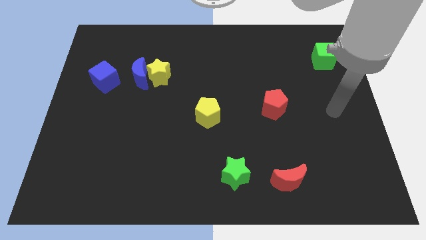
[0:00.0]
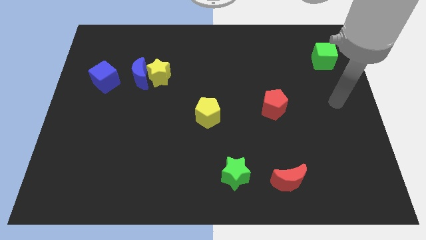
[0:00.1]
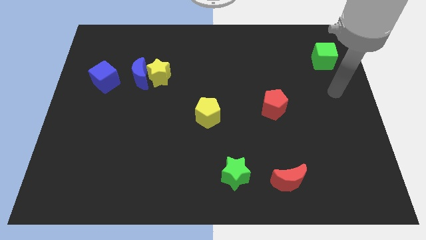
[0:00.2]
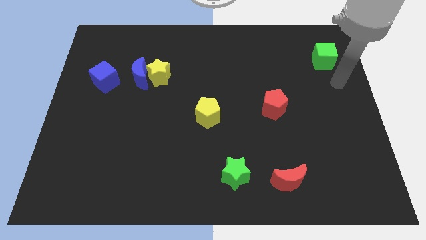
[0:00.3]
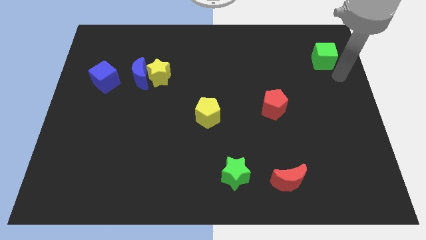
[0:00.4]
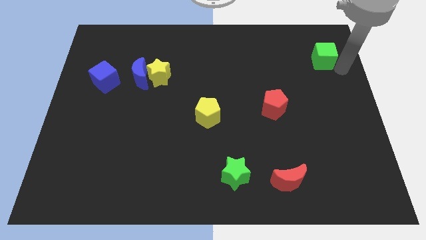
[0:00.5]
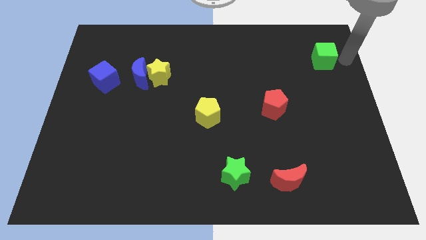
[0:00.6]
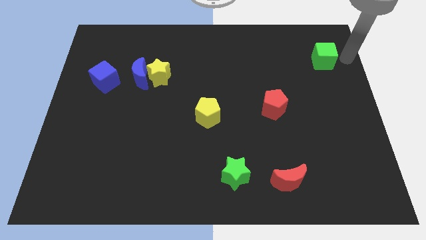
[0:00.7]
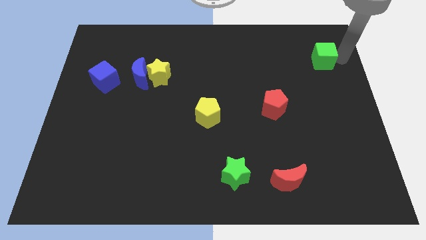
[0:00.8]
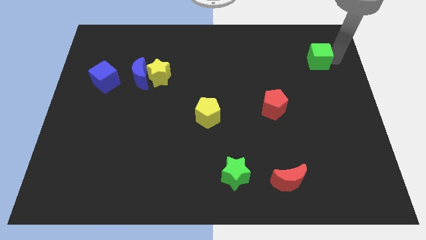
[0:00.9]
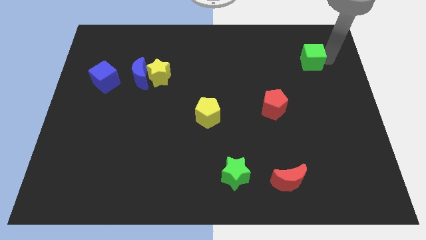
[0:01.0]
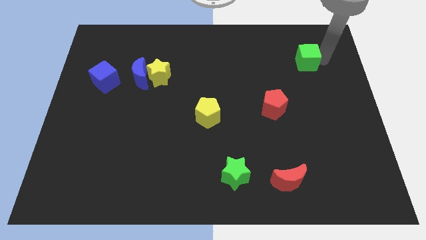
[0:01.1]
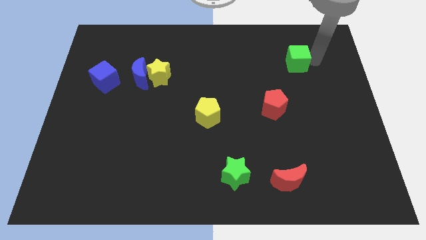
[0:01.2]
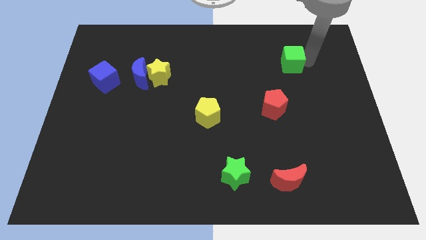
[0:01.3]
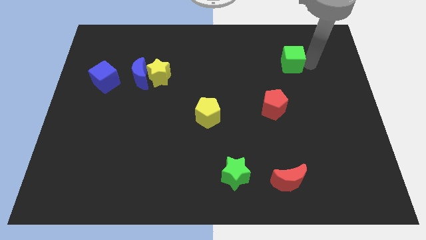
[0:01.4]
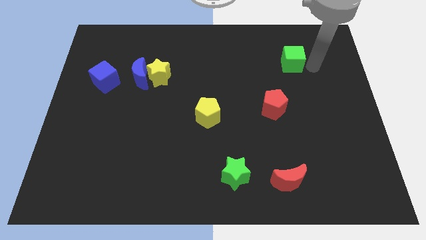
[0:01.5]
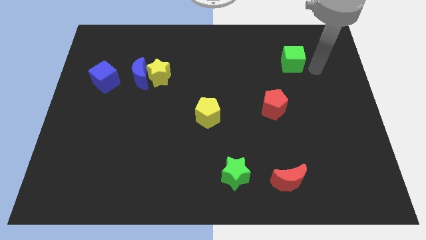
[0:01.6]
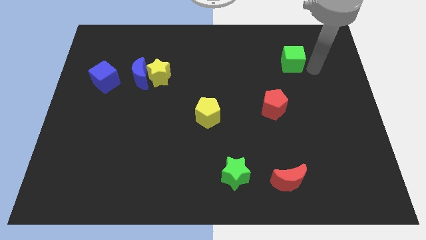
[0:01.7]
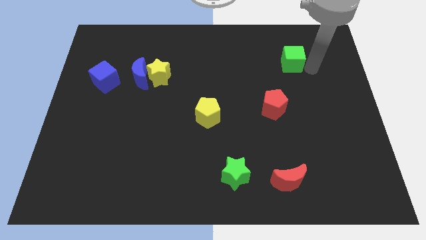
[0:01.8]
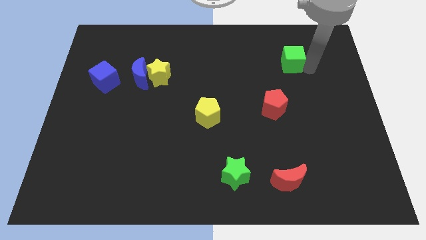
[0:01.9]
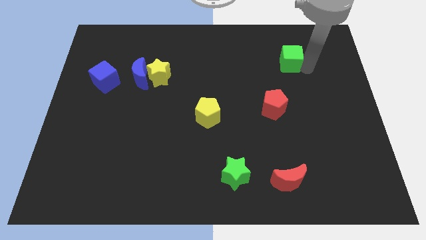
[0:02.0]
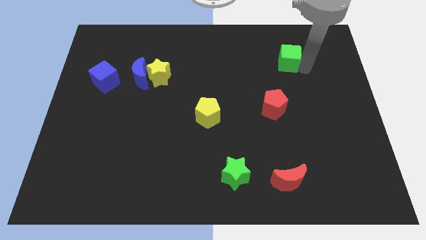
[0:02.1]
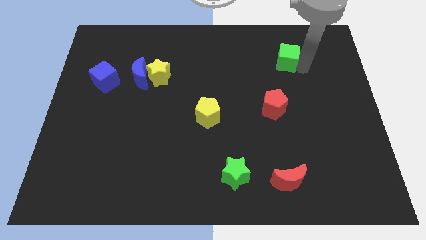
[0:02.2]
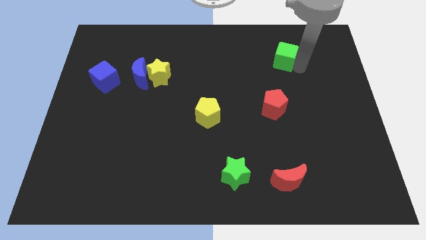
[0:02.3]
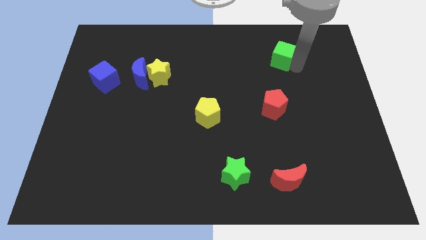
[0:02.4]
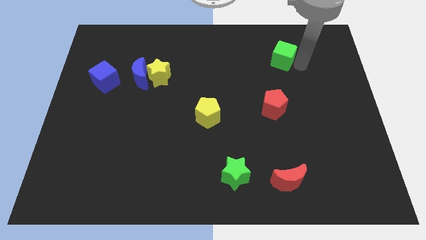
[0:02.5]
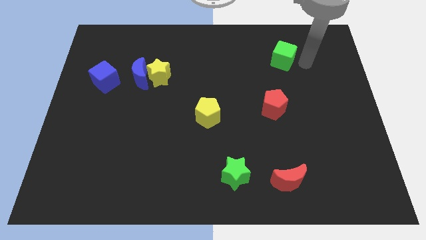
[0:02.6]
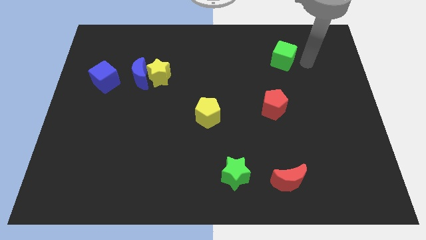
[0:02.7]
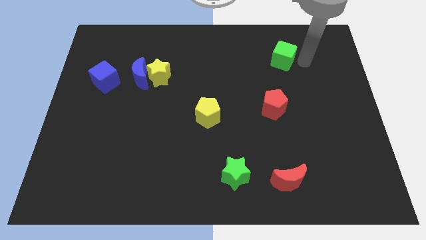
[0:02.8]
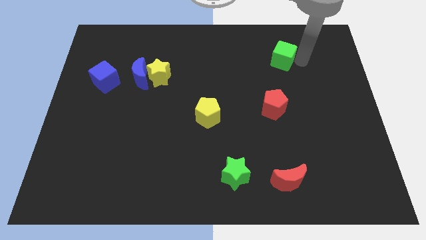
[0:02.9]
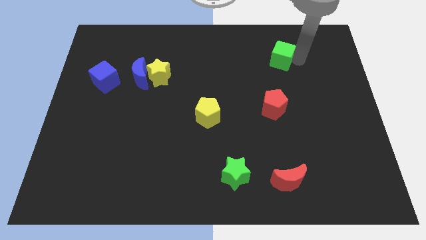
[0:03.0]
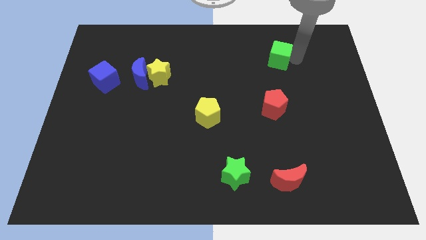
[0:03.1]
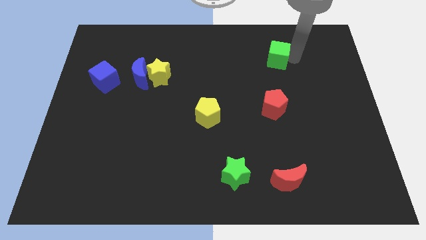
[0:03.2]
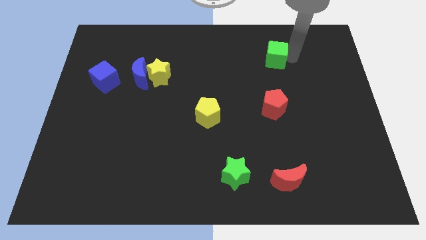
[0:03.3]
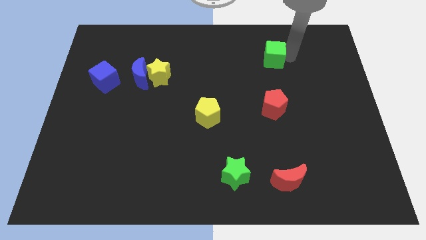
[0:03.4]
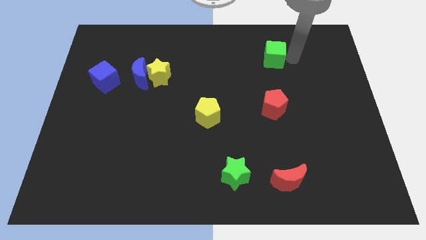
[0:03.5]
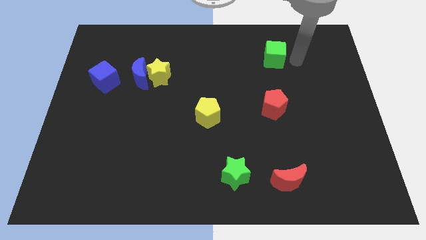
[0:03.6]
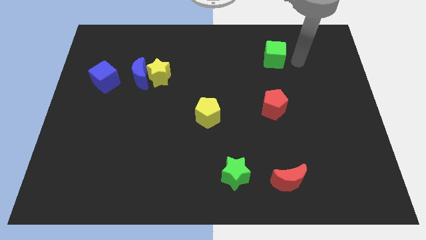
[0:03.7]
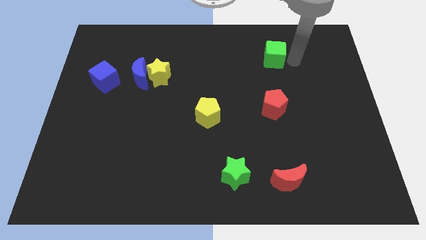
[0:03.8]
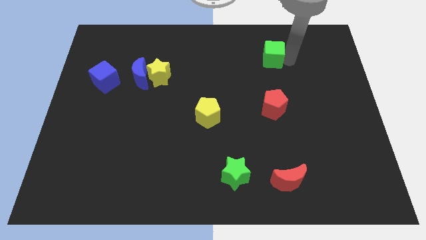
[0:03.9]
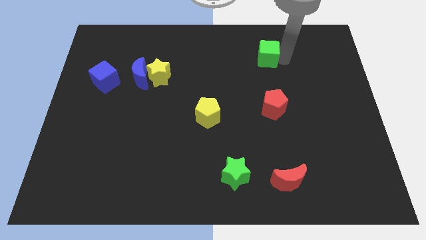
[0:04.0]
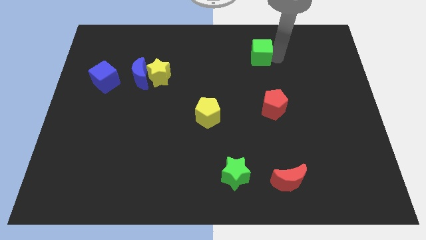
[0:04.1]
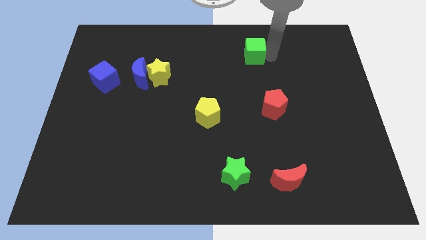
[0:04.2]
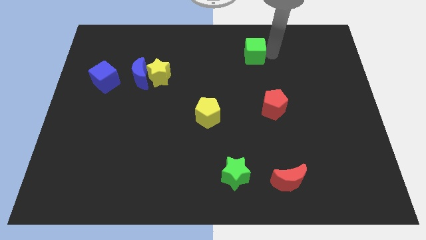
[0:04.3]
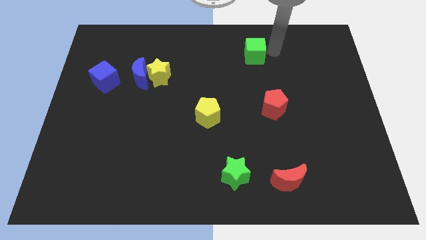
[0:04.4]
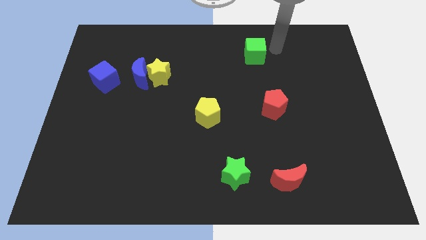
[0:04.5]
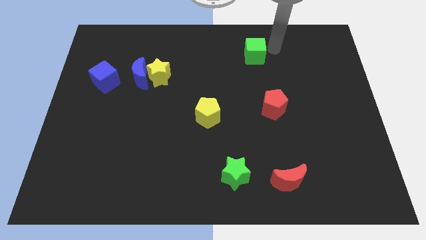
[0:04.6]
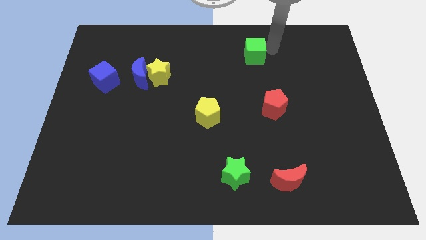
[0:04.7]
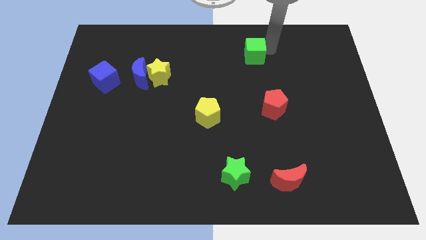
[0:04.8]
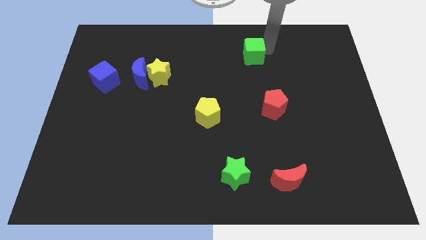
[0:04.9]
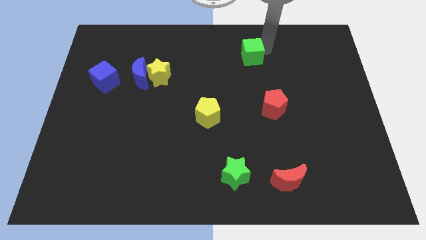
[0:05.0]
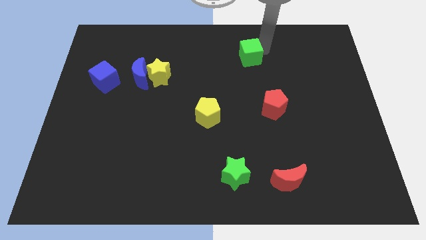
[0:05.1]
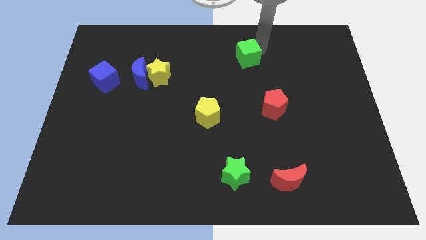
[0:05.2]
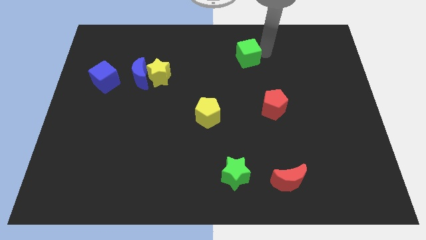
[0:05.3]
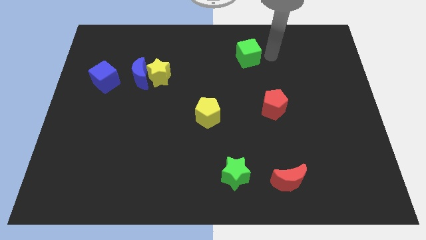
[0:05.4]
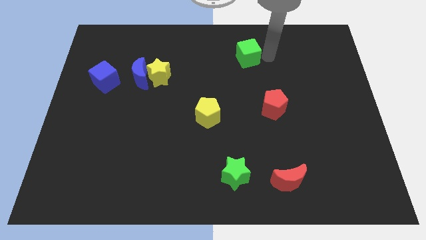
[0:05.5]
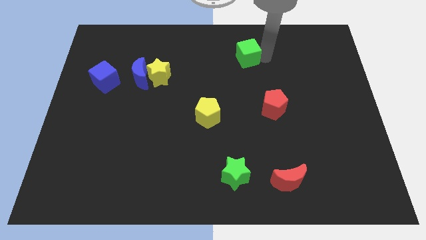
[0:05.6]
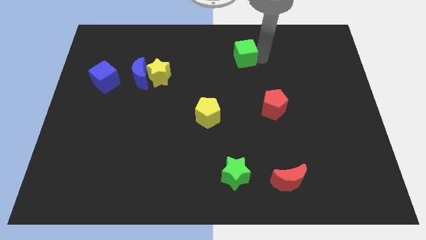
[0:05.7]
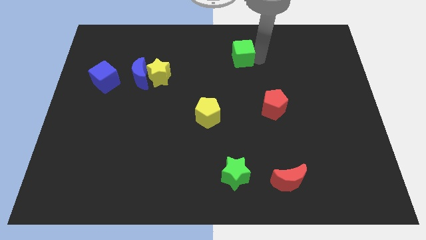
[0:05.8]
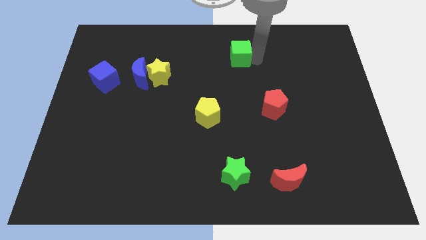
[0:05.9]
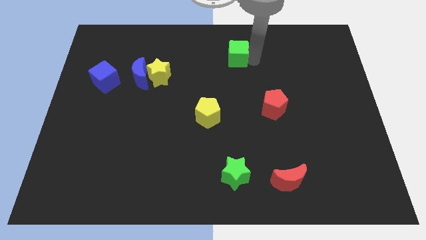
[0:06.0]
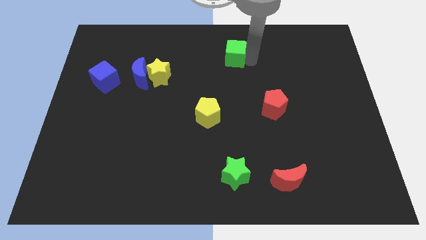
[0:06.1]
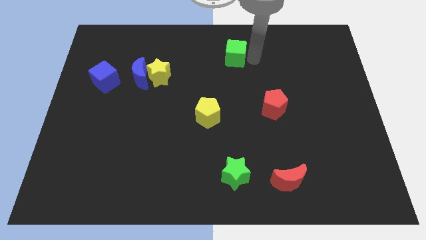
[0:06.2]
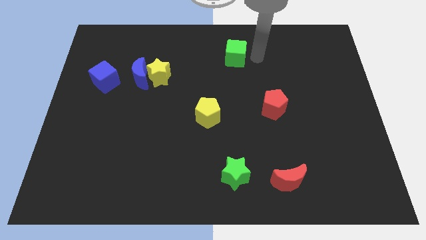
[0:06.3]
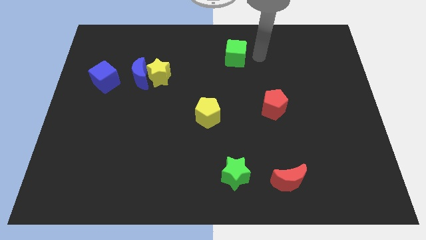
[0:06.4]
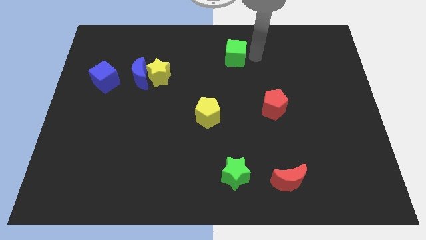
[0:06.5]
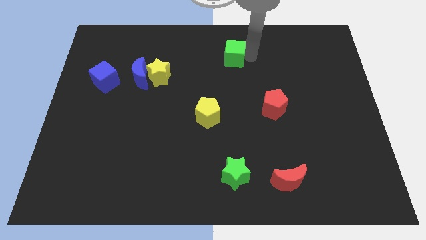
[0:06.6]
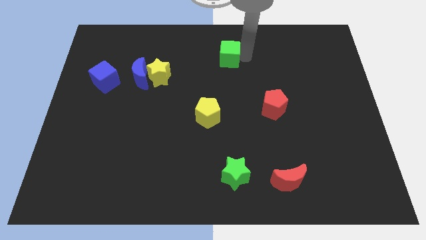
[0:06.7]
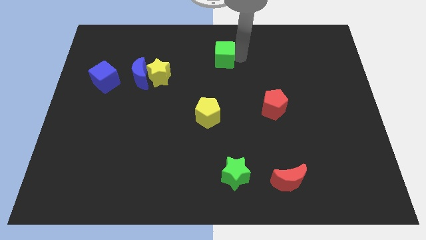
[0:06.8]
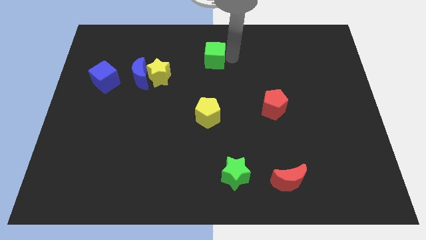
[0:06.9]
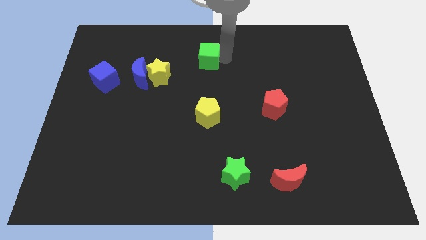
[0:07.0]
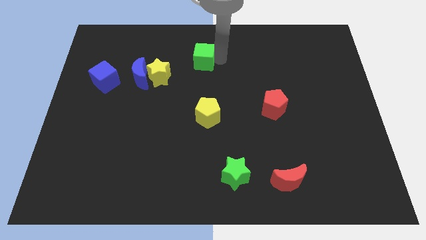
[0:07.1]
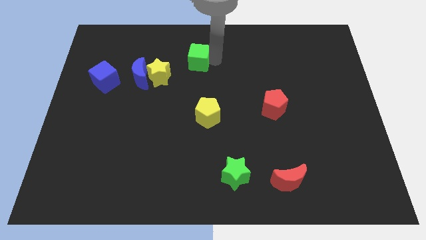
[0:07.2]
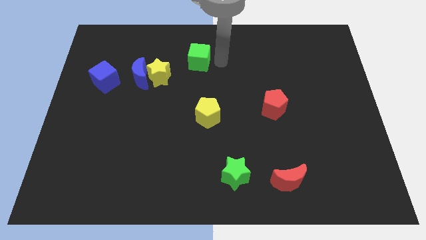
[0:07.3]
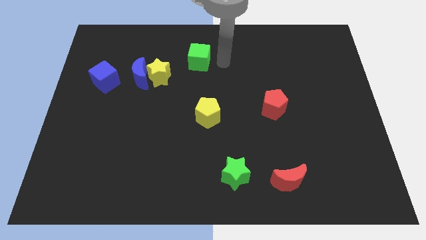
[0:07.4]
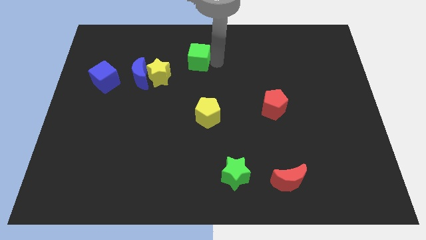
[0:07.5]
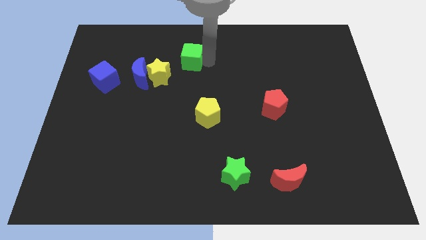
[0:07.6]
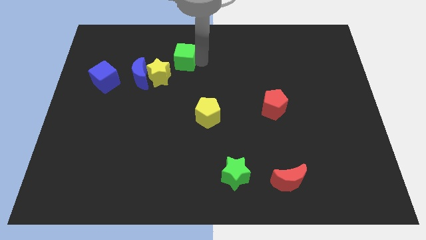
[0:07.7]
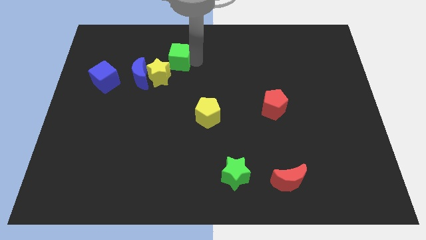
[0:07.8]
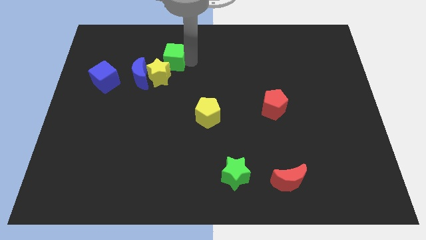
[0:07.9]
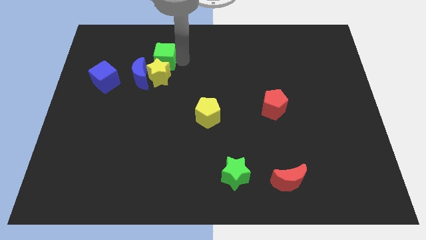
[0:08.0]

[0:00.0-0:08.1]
move the green cube to the top left side of the yellow star
